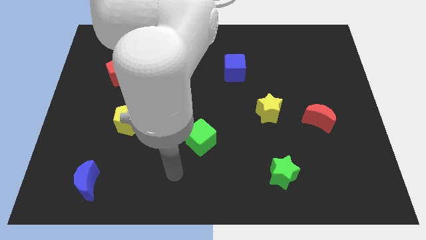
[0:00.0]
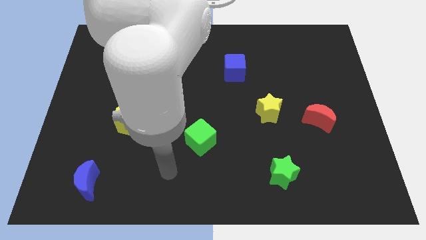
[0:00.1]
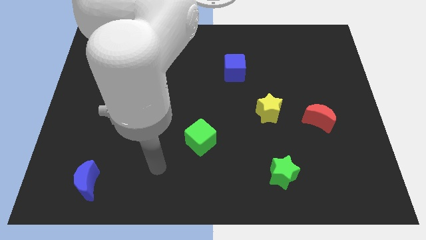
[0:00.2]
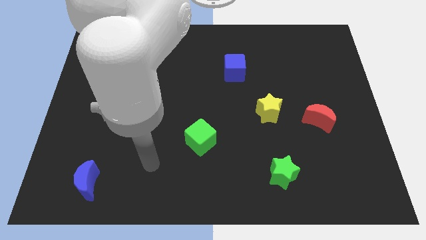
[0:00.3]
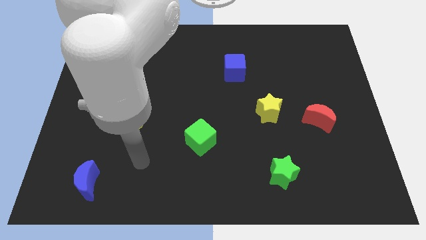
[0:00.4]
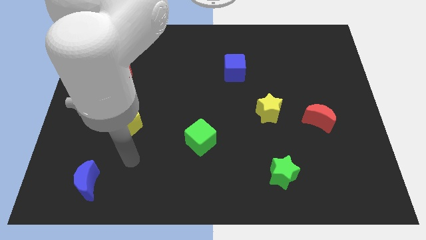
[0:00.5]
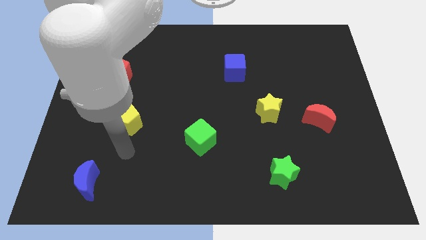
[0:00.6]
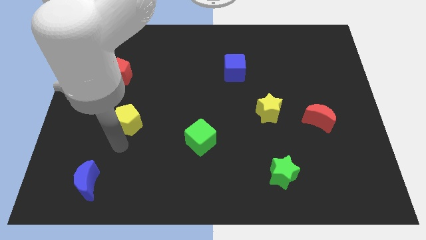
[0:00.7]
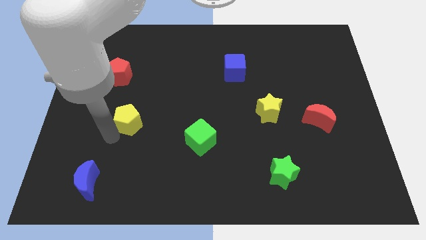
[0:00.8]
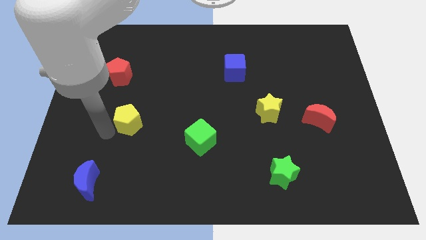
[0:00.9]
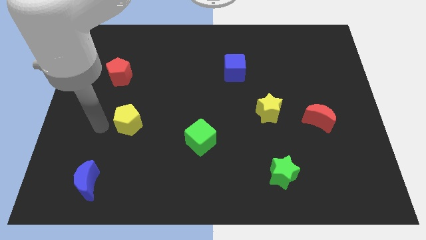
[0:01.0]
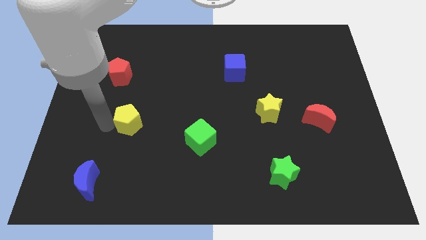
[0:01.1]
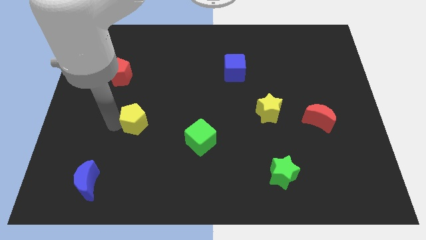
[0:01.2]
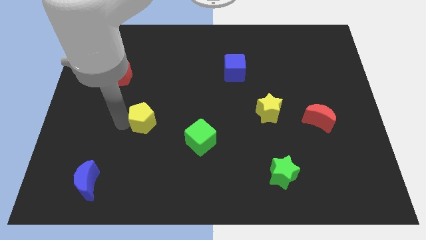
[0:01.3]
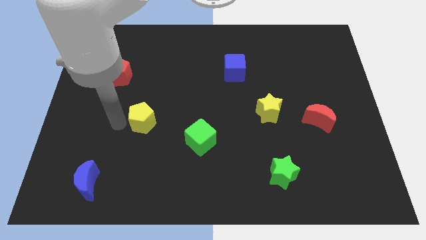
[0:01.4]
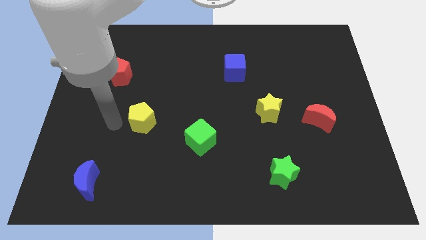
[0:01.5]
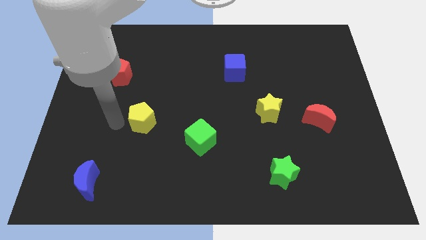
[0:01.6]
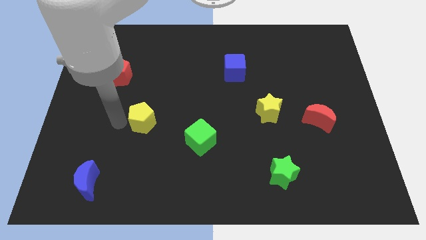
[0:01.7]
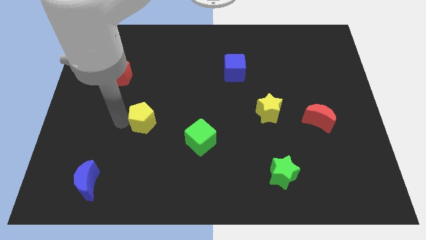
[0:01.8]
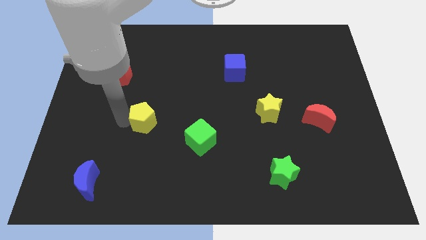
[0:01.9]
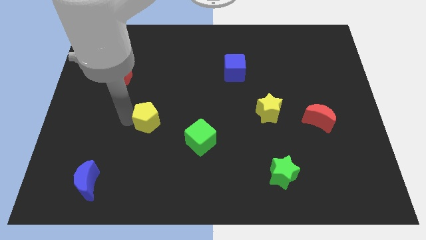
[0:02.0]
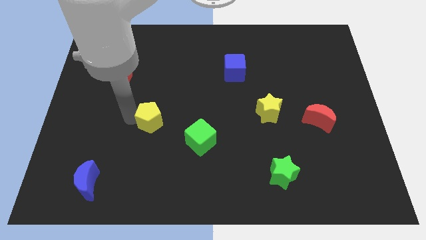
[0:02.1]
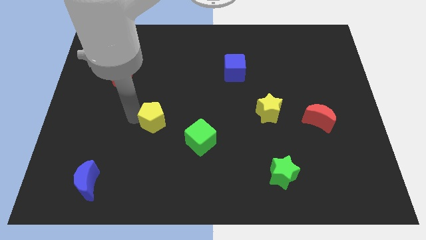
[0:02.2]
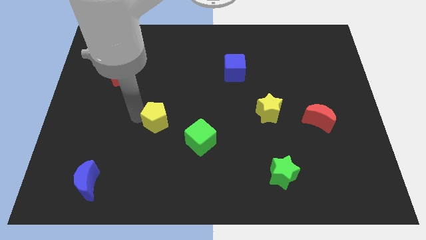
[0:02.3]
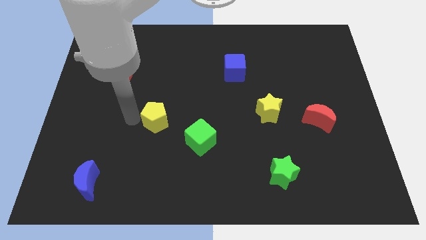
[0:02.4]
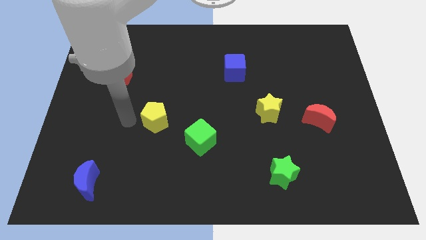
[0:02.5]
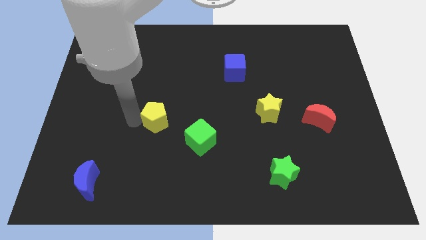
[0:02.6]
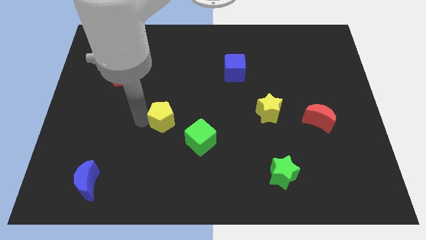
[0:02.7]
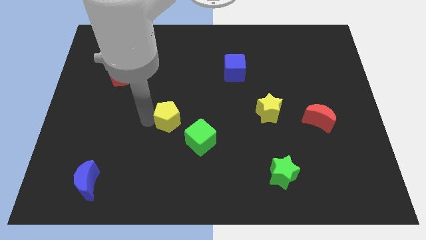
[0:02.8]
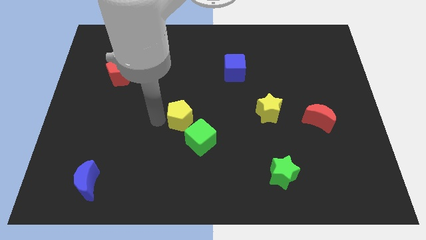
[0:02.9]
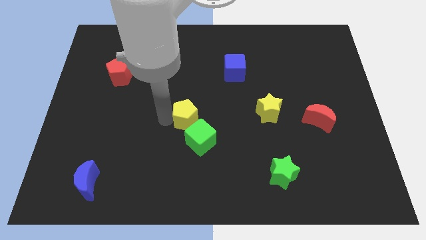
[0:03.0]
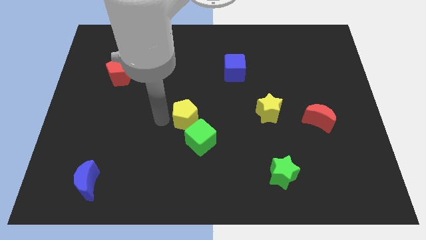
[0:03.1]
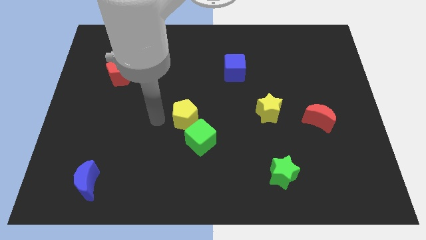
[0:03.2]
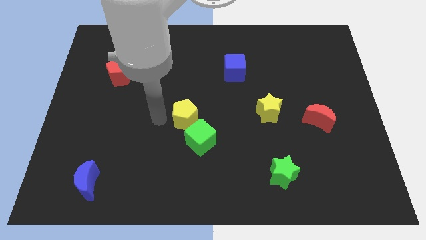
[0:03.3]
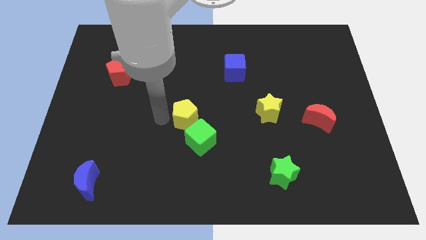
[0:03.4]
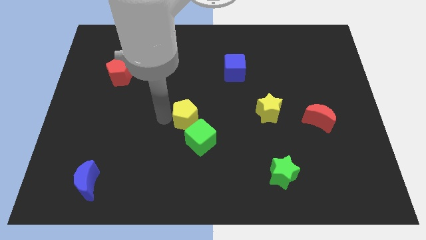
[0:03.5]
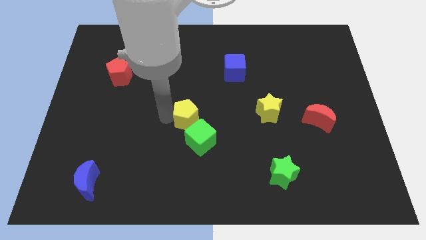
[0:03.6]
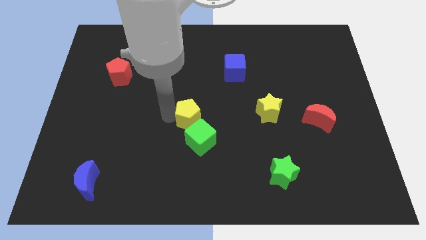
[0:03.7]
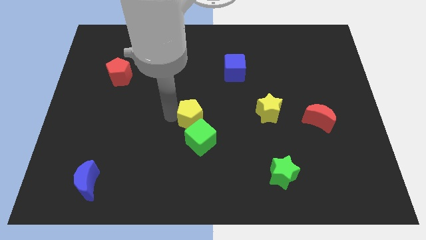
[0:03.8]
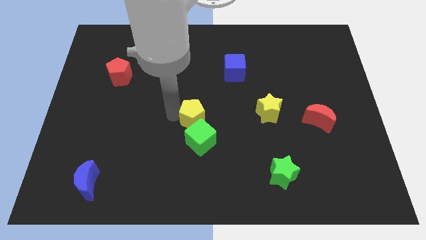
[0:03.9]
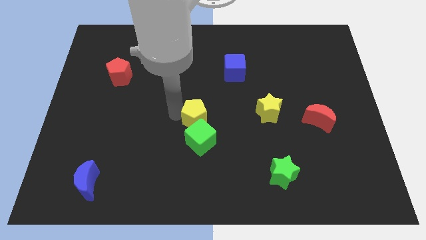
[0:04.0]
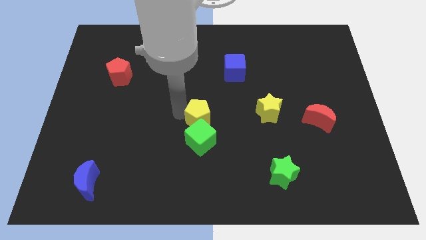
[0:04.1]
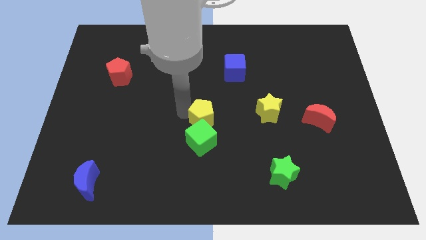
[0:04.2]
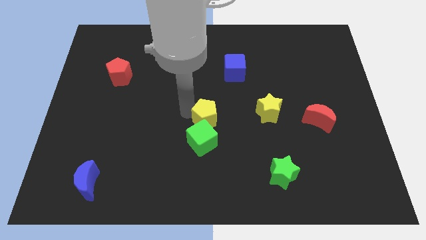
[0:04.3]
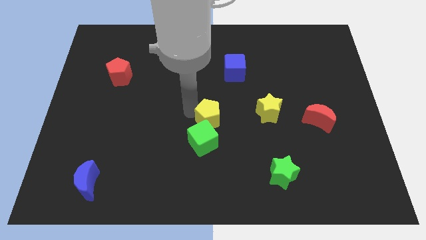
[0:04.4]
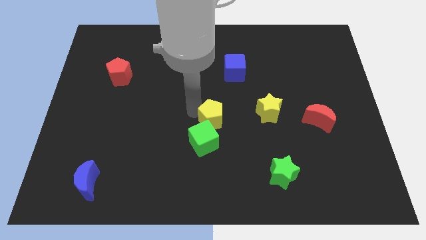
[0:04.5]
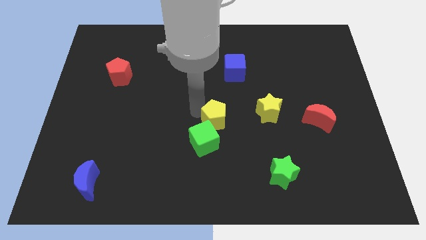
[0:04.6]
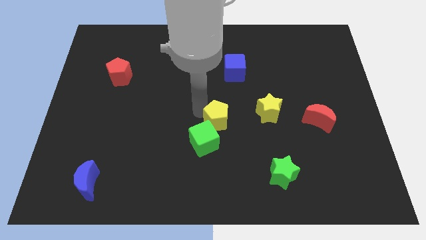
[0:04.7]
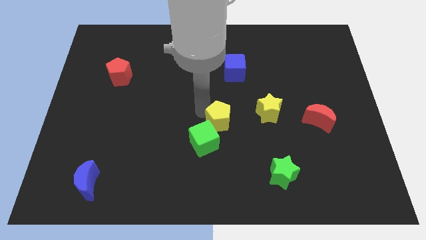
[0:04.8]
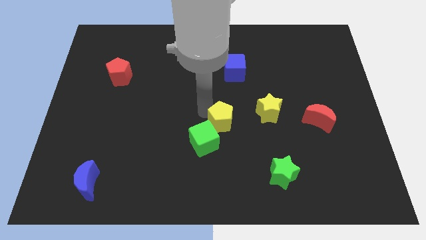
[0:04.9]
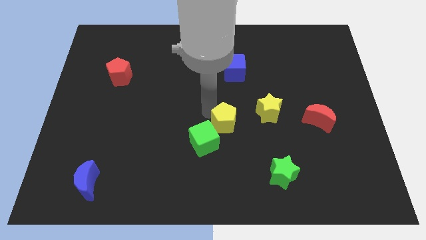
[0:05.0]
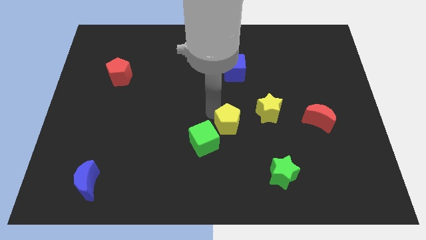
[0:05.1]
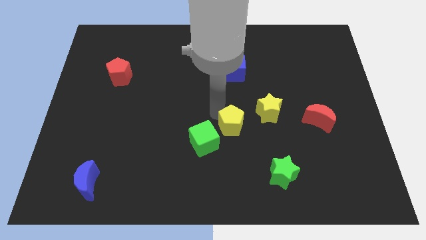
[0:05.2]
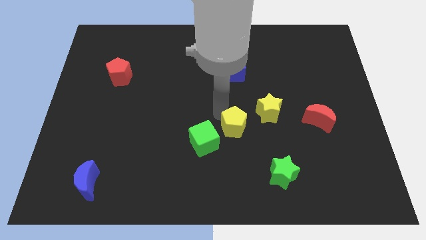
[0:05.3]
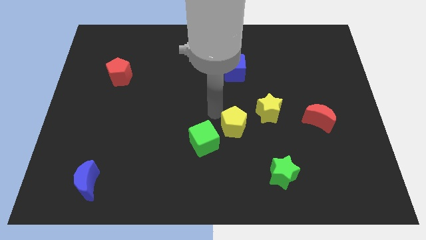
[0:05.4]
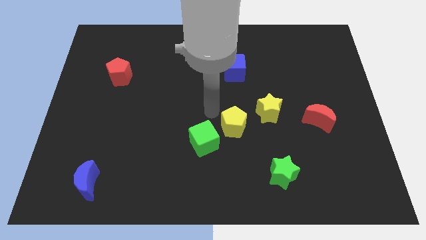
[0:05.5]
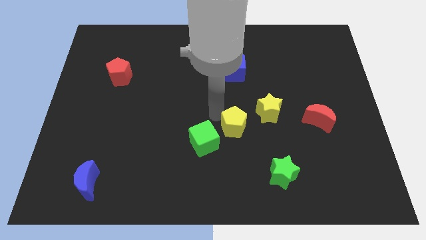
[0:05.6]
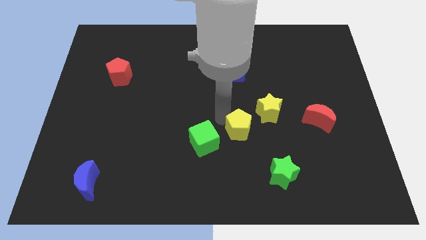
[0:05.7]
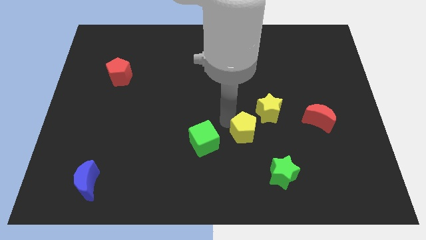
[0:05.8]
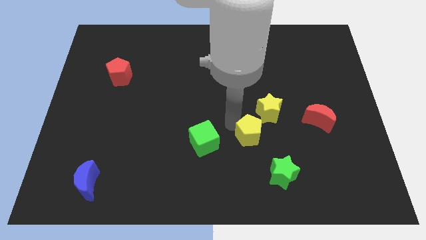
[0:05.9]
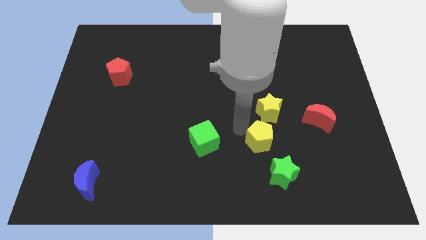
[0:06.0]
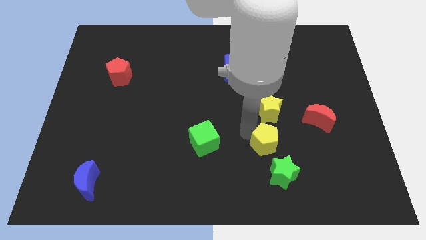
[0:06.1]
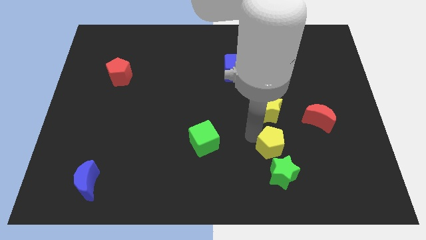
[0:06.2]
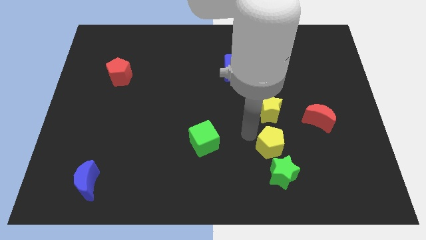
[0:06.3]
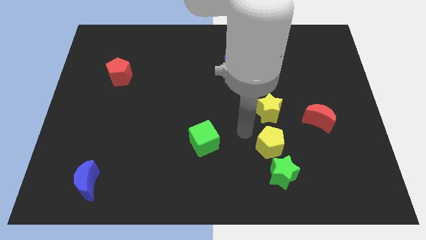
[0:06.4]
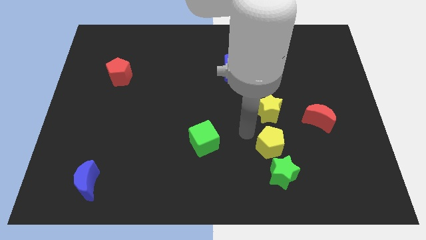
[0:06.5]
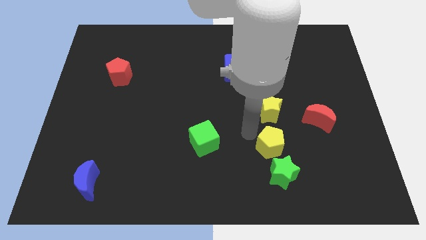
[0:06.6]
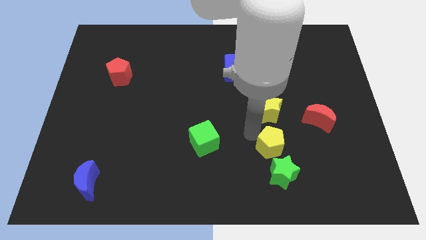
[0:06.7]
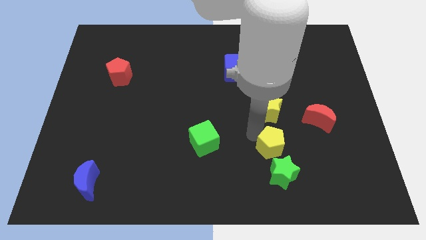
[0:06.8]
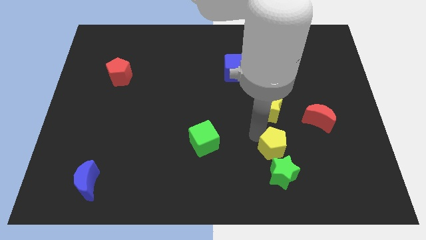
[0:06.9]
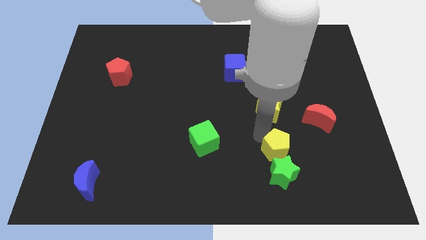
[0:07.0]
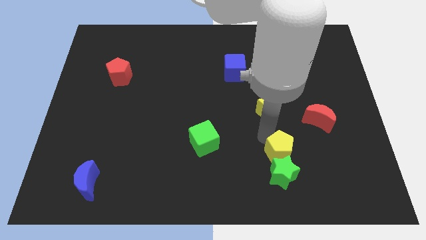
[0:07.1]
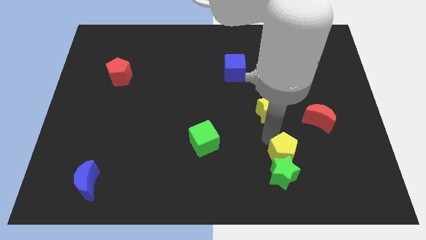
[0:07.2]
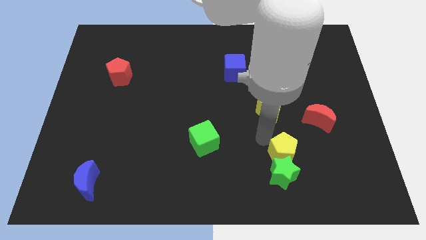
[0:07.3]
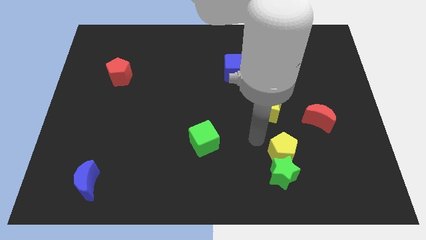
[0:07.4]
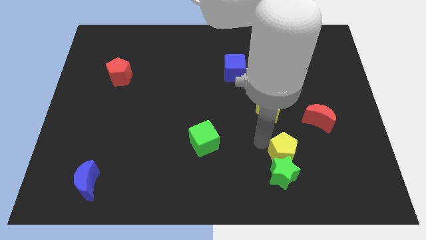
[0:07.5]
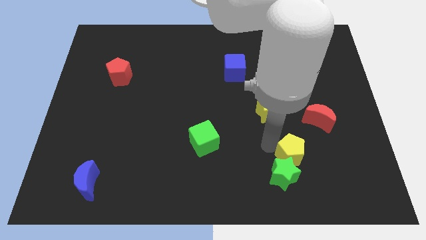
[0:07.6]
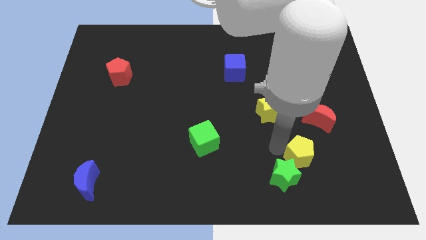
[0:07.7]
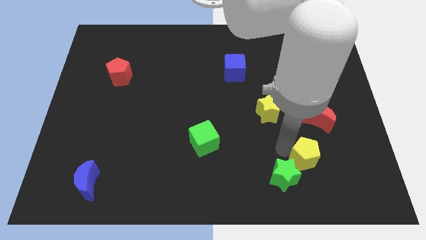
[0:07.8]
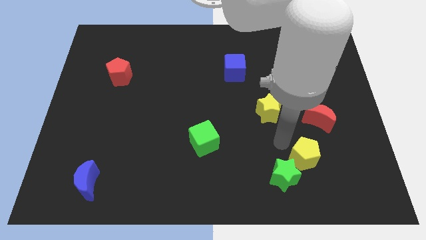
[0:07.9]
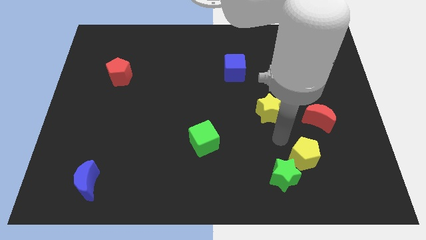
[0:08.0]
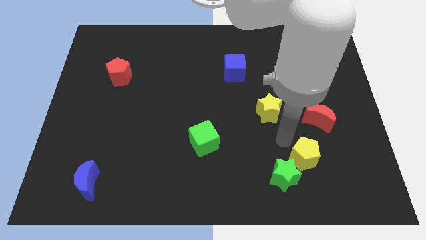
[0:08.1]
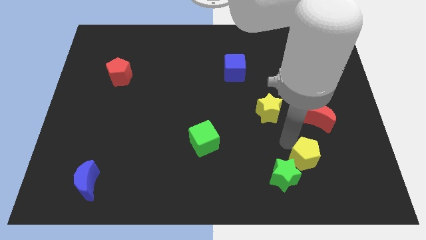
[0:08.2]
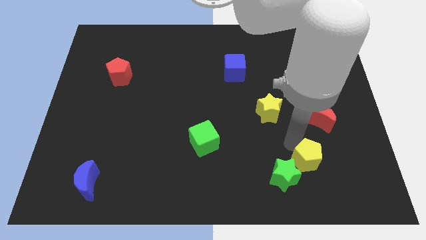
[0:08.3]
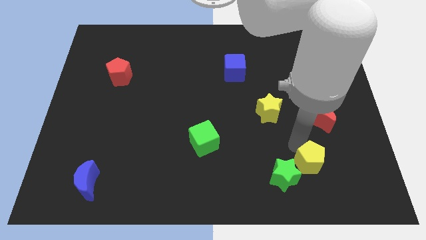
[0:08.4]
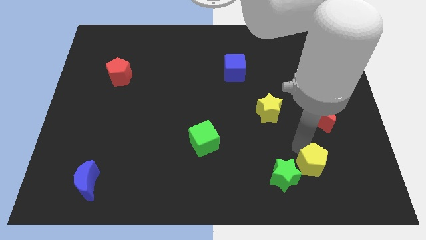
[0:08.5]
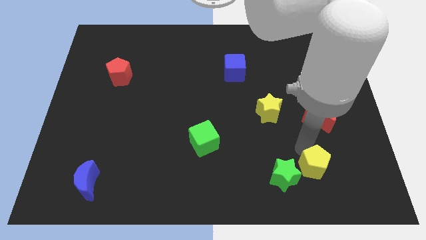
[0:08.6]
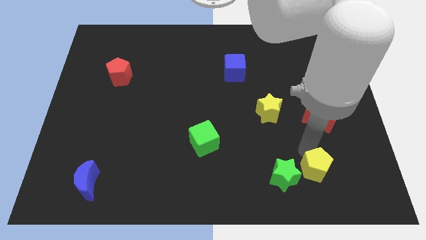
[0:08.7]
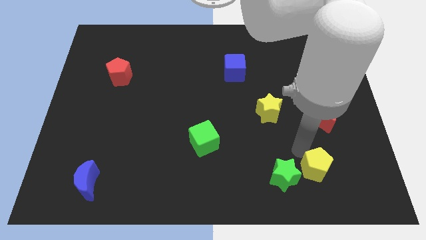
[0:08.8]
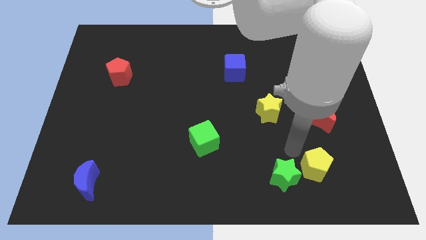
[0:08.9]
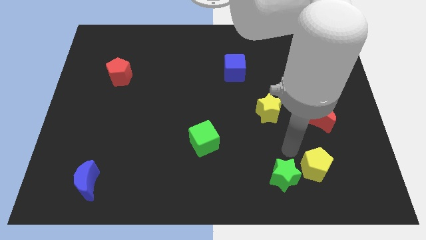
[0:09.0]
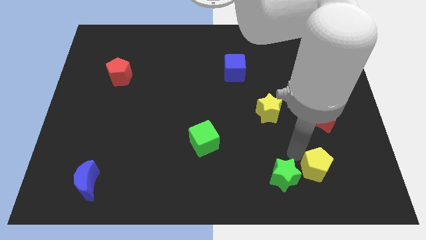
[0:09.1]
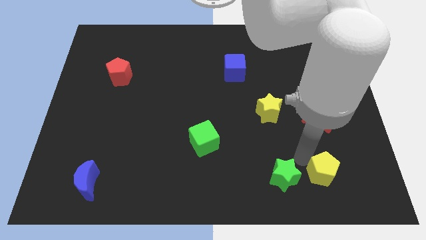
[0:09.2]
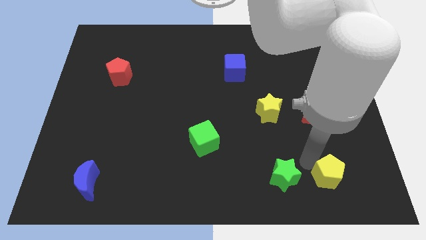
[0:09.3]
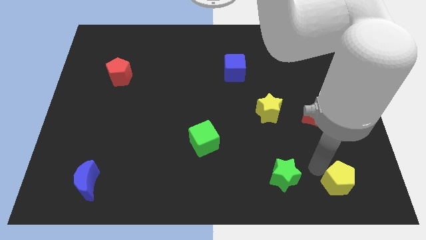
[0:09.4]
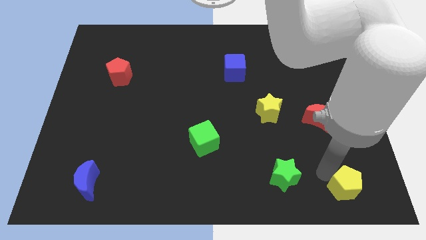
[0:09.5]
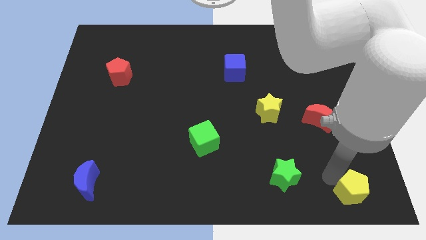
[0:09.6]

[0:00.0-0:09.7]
push the yellow pentagon to the bottom right corner
